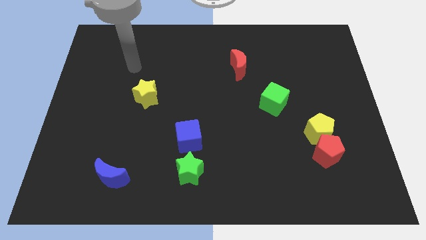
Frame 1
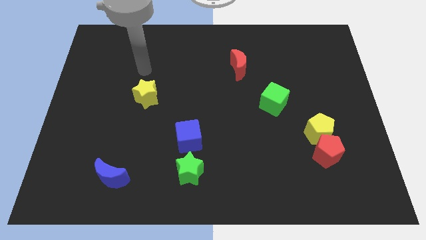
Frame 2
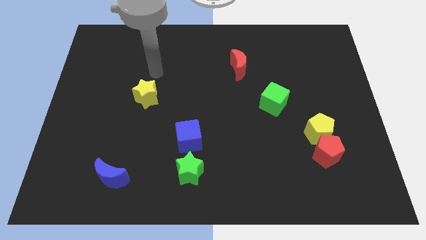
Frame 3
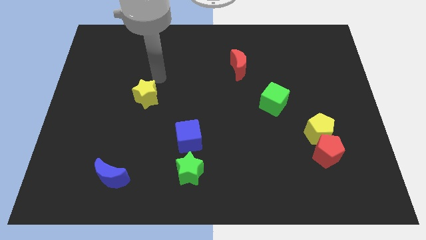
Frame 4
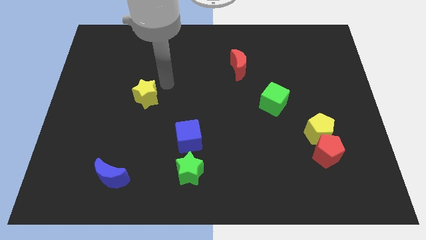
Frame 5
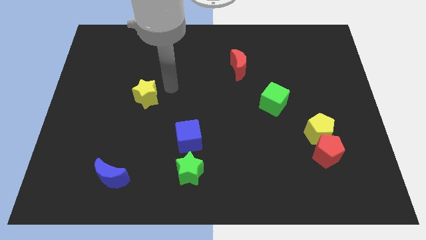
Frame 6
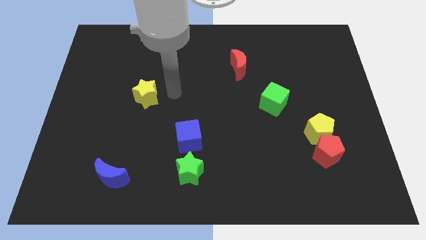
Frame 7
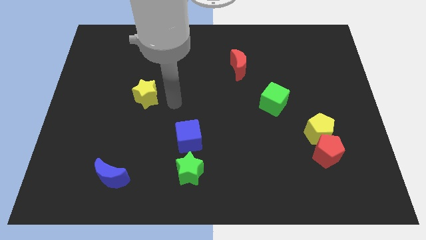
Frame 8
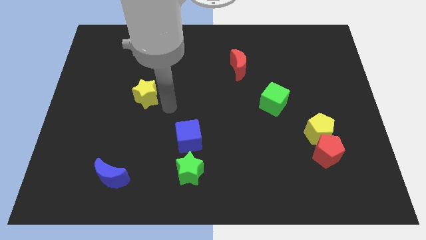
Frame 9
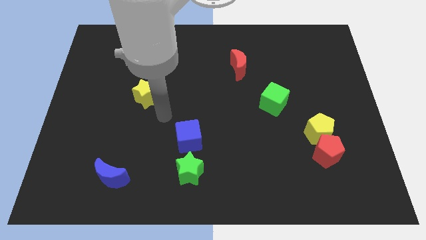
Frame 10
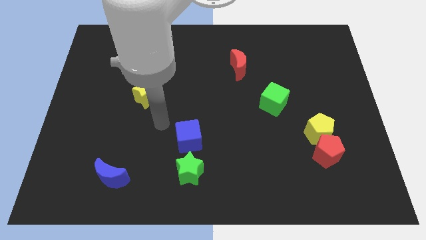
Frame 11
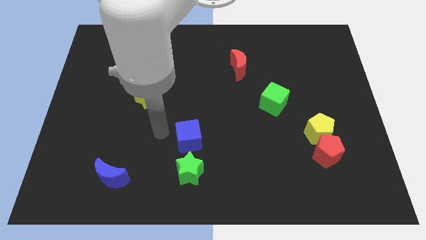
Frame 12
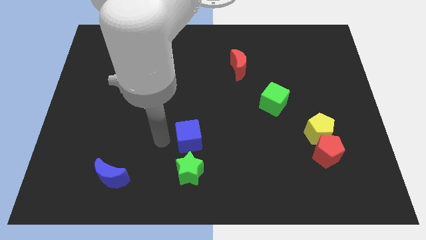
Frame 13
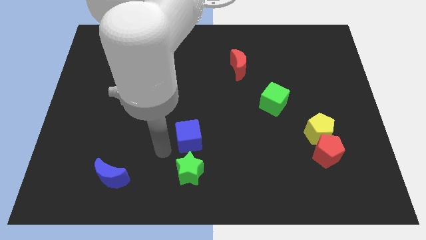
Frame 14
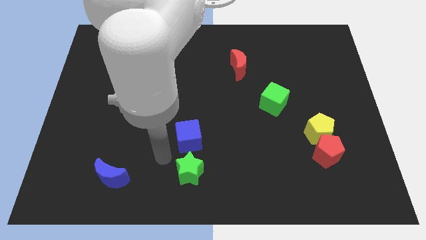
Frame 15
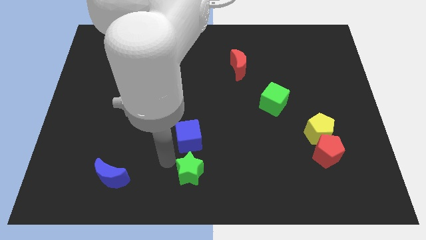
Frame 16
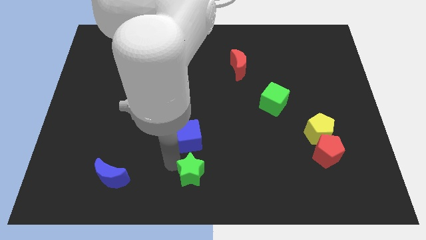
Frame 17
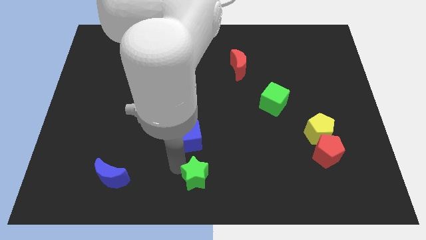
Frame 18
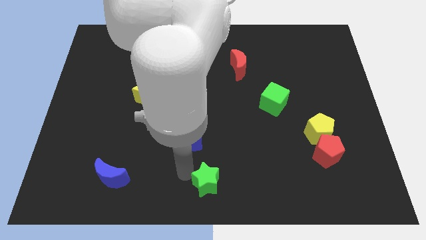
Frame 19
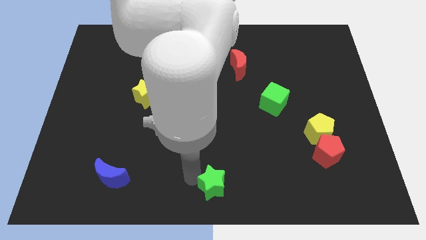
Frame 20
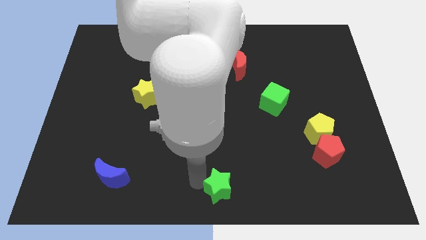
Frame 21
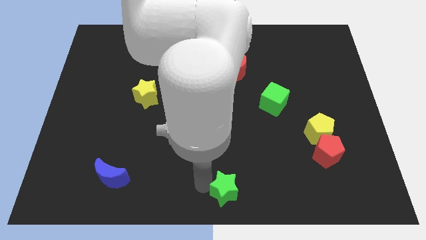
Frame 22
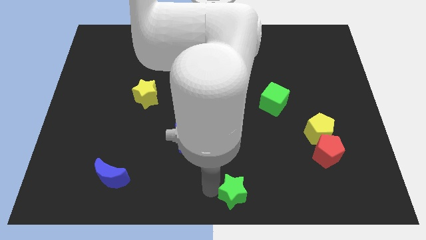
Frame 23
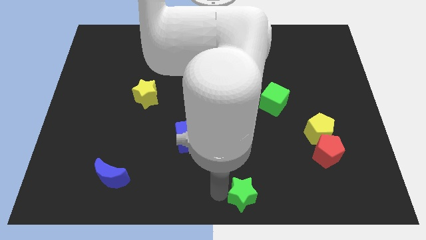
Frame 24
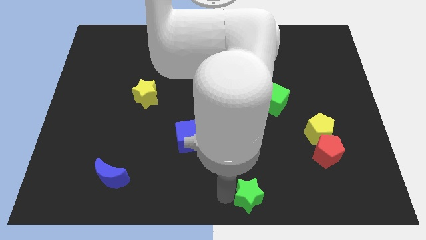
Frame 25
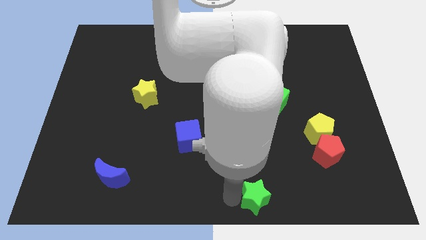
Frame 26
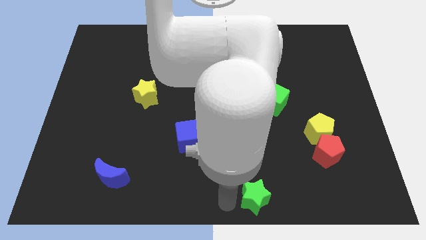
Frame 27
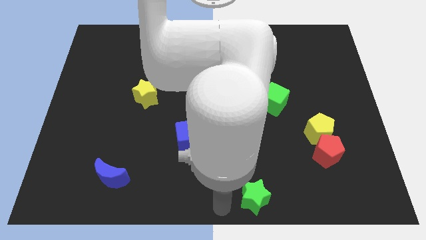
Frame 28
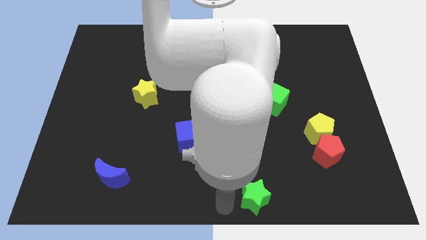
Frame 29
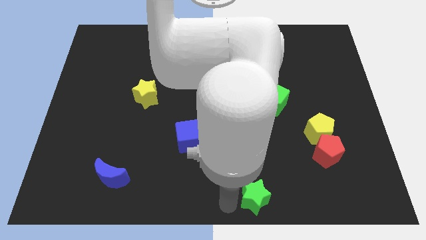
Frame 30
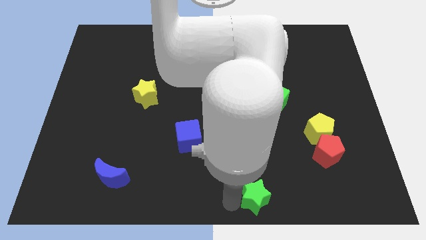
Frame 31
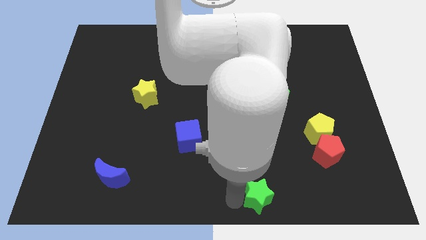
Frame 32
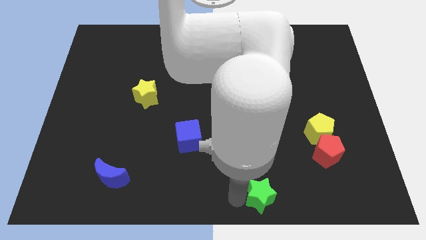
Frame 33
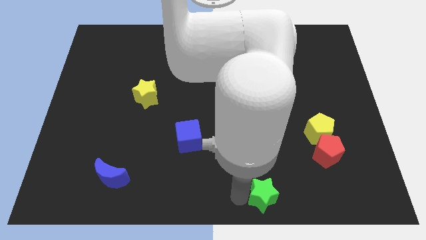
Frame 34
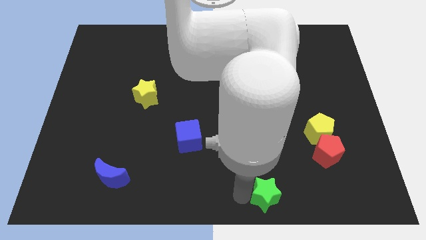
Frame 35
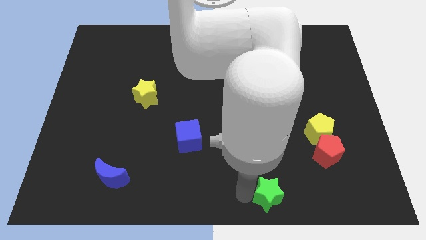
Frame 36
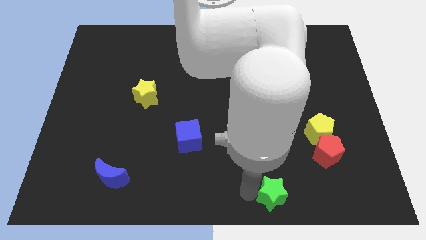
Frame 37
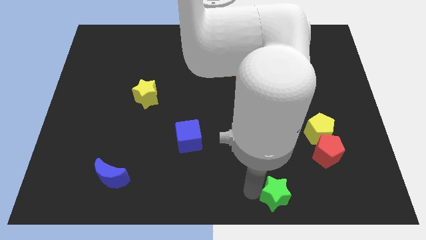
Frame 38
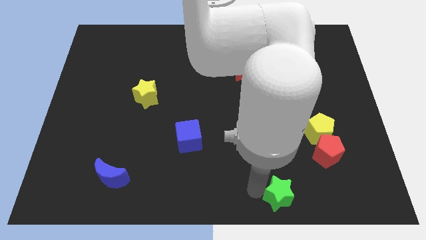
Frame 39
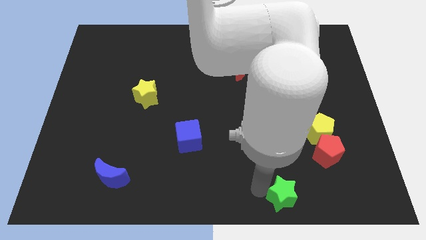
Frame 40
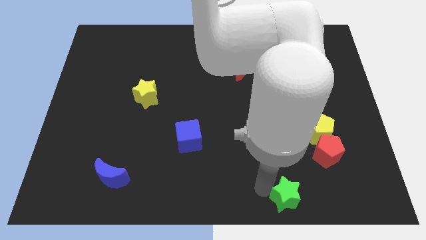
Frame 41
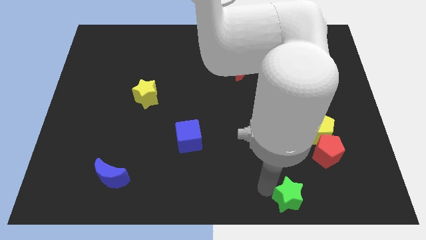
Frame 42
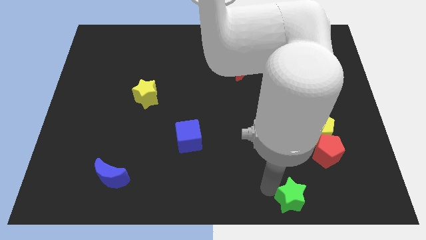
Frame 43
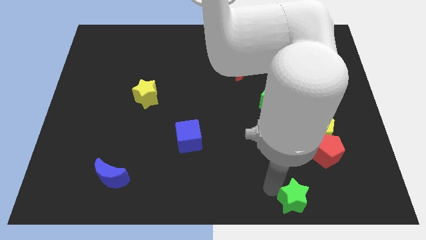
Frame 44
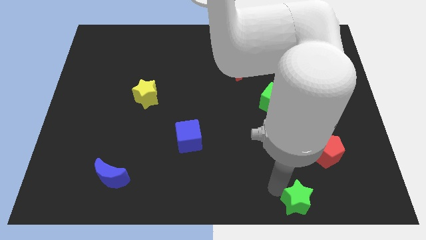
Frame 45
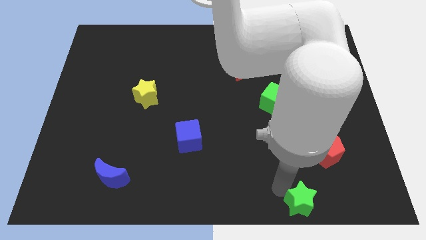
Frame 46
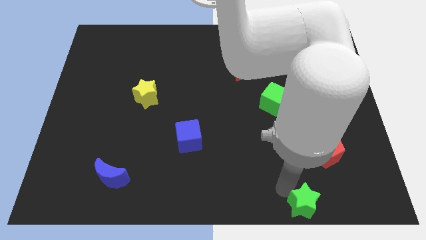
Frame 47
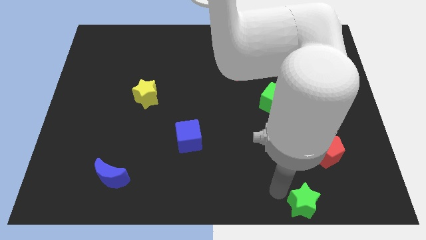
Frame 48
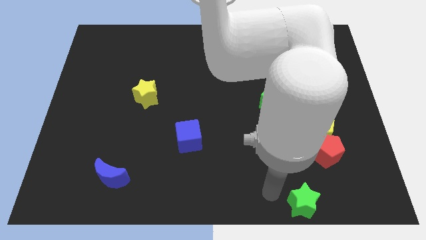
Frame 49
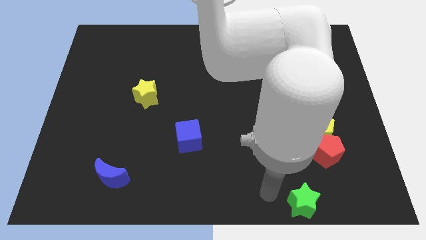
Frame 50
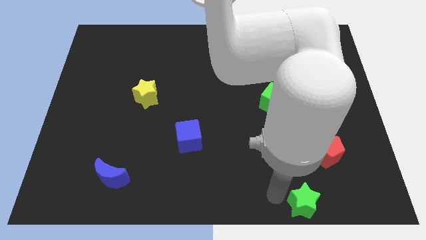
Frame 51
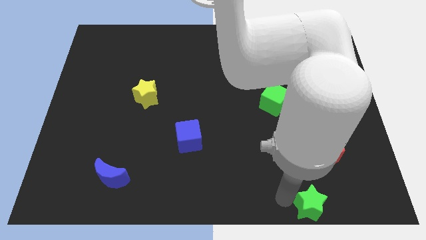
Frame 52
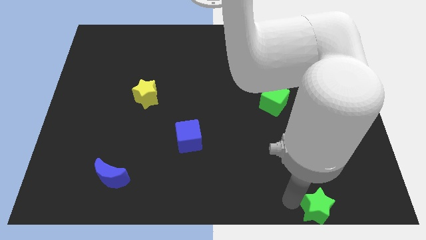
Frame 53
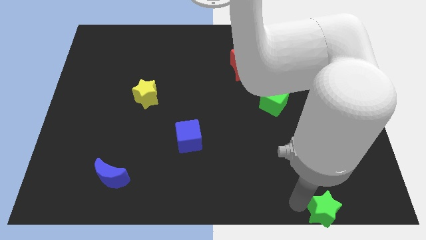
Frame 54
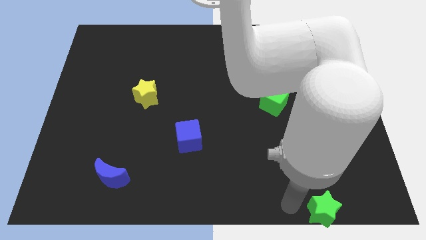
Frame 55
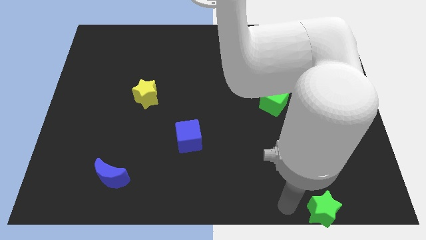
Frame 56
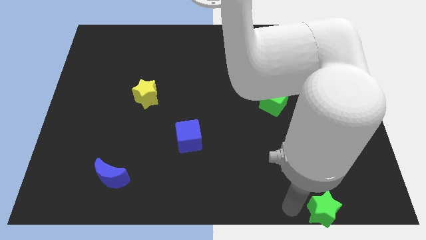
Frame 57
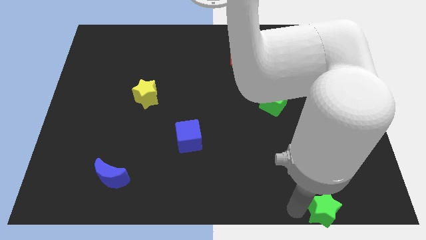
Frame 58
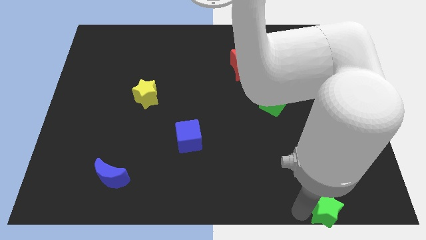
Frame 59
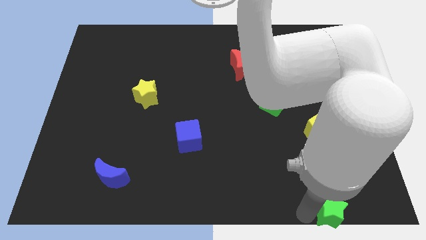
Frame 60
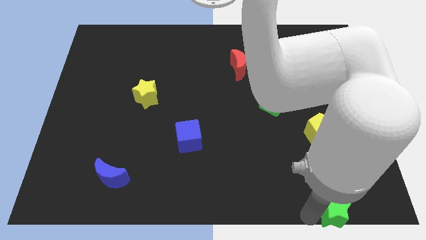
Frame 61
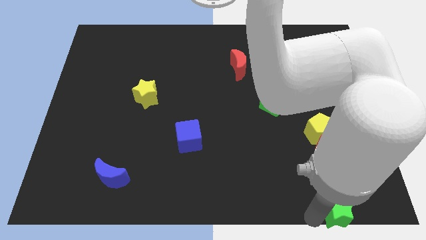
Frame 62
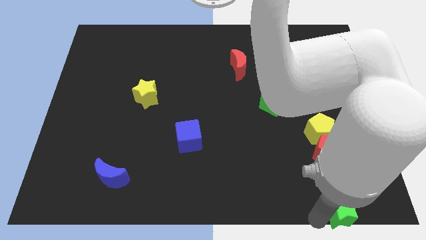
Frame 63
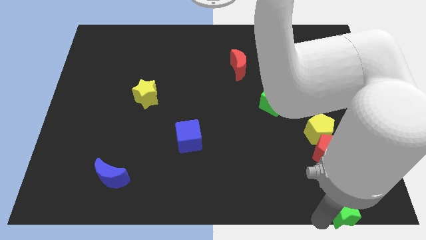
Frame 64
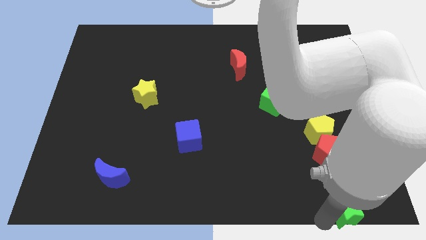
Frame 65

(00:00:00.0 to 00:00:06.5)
move the green star to the bottom right
